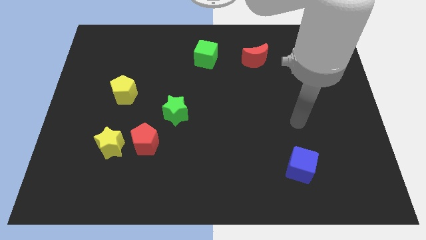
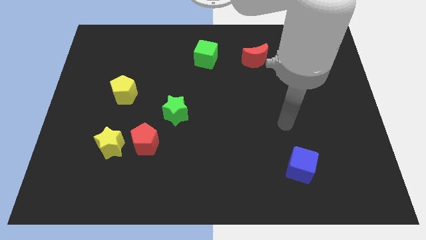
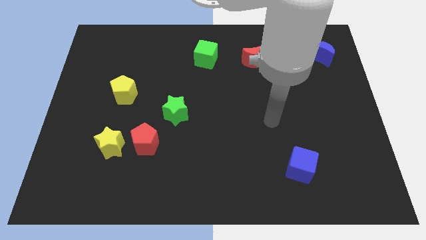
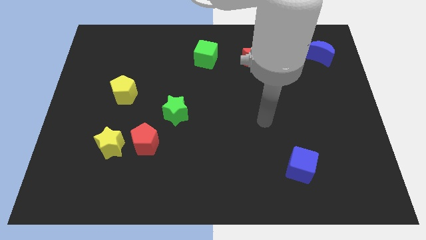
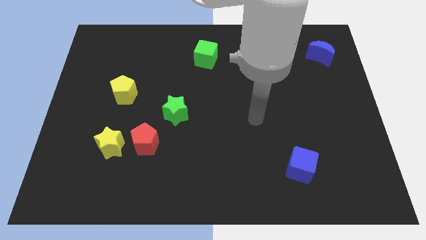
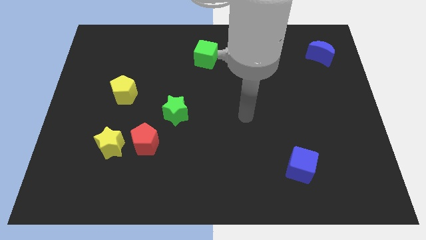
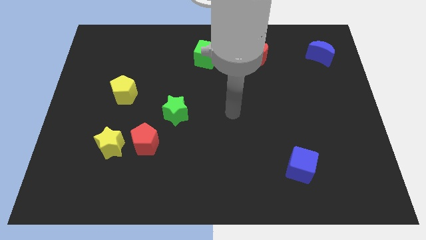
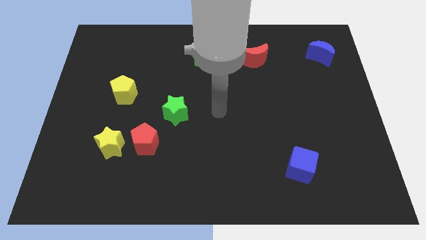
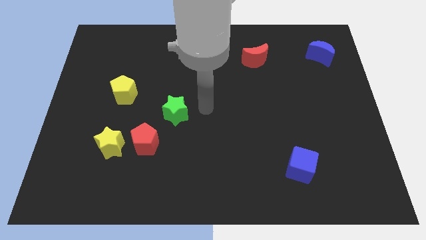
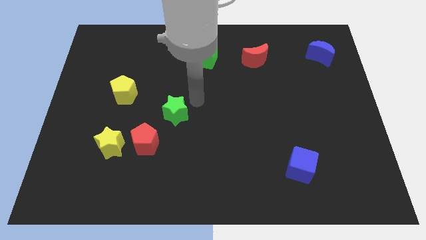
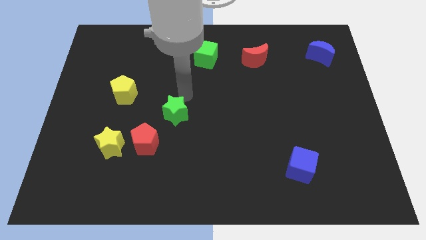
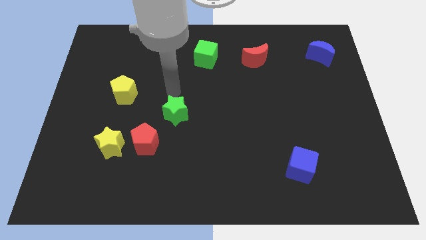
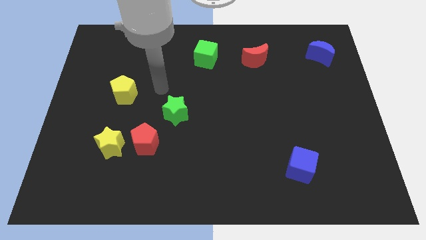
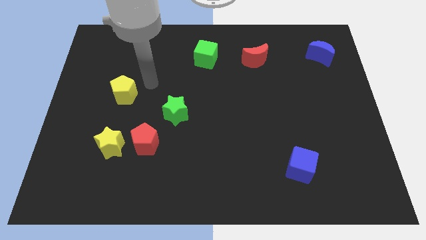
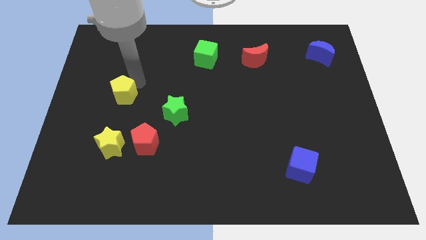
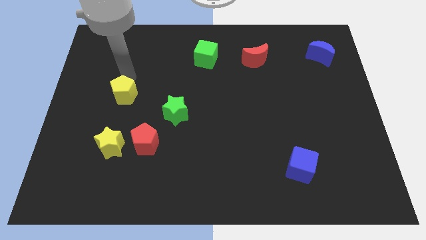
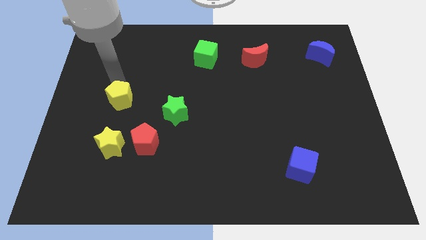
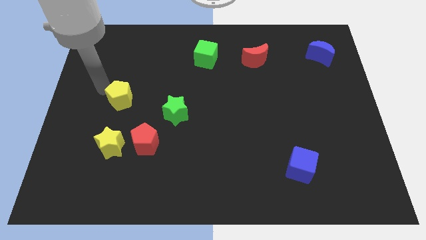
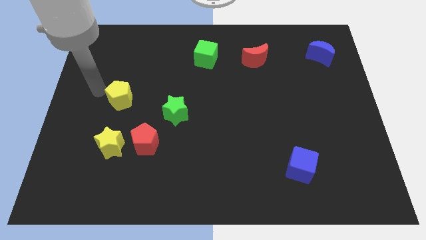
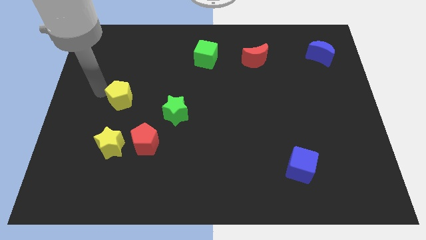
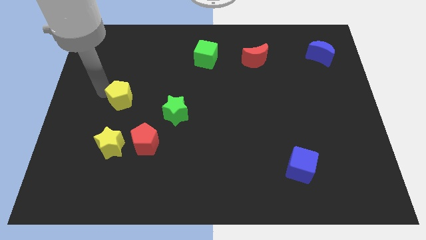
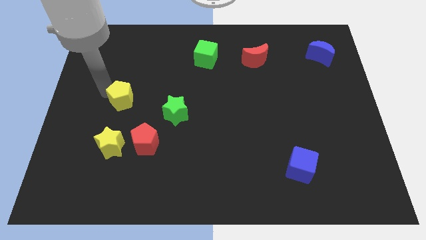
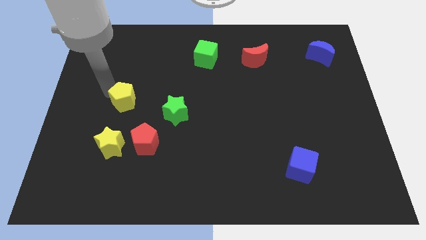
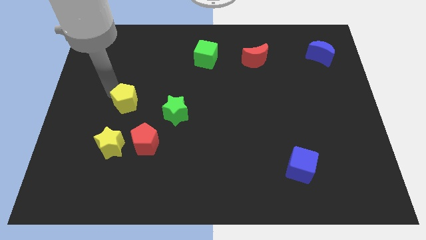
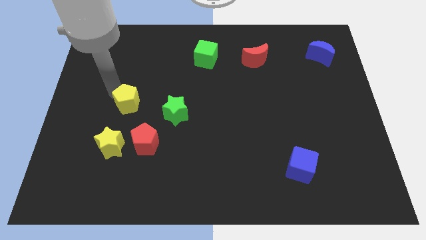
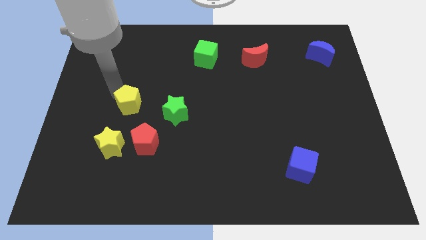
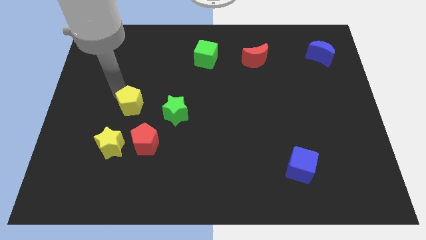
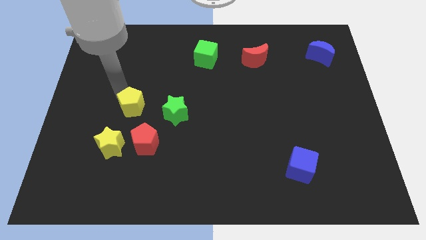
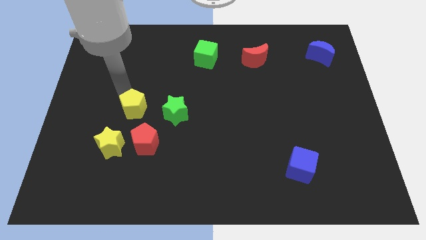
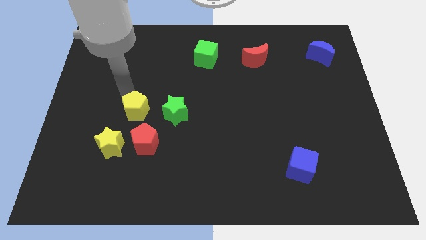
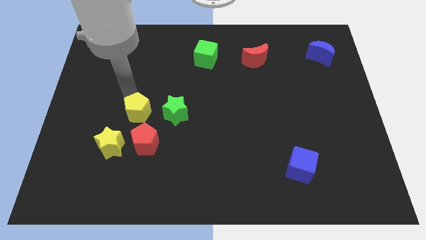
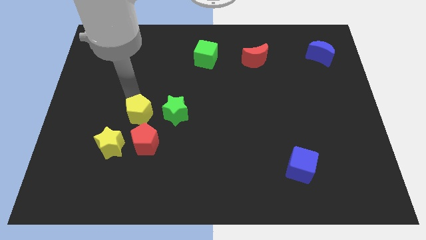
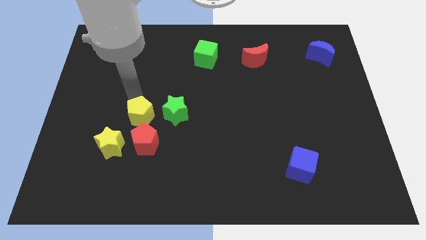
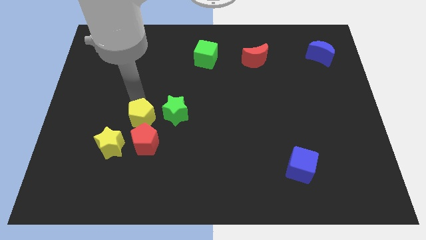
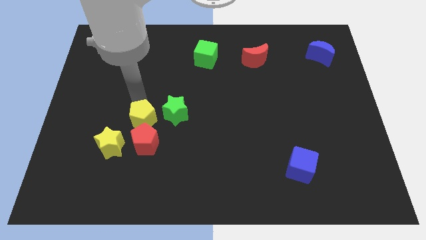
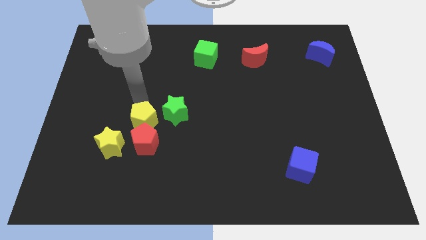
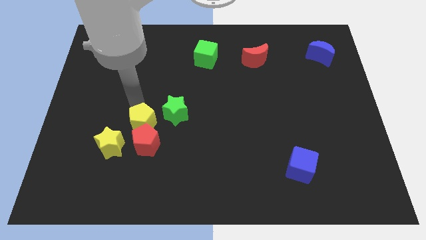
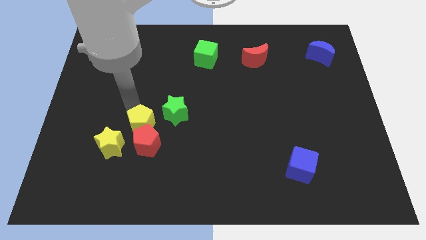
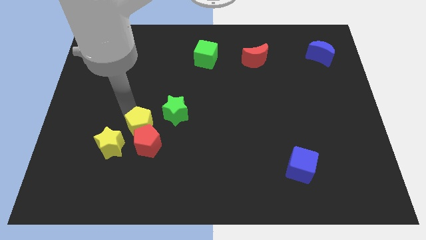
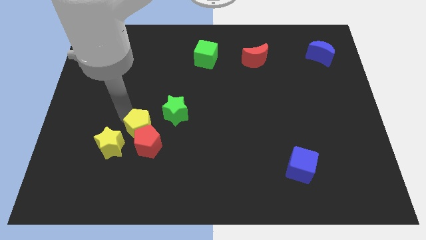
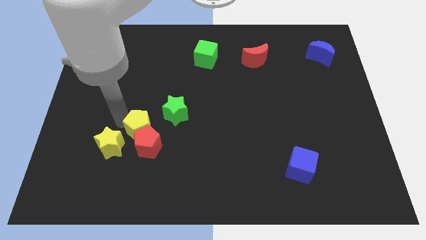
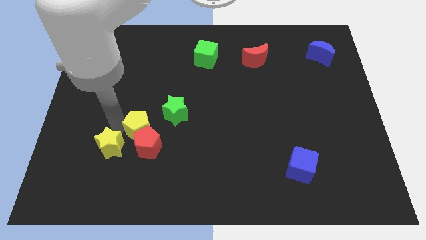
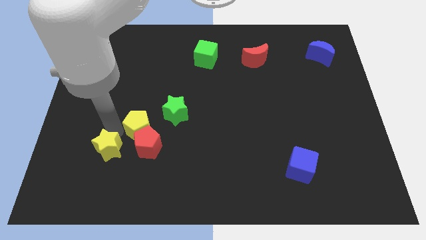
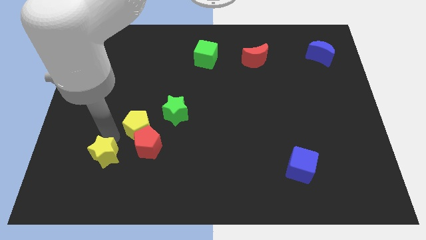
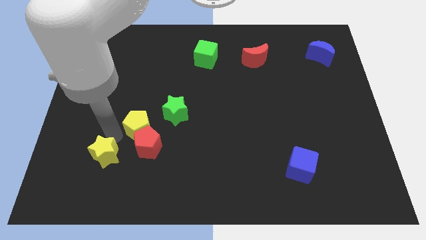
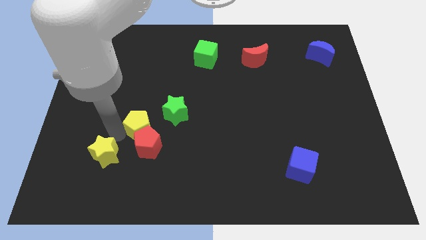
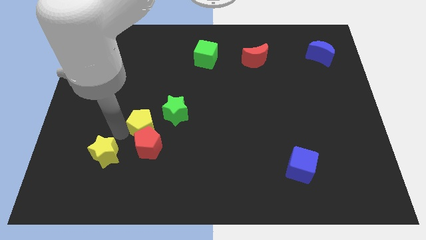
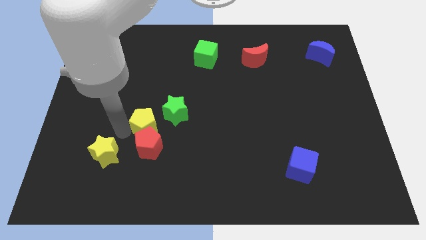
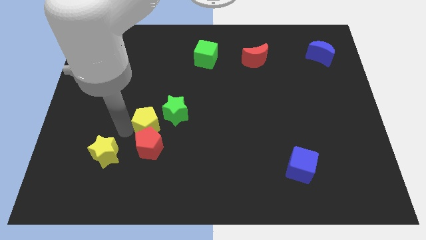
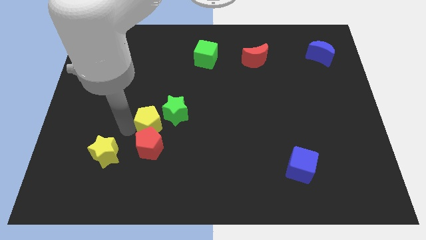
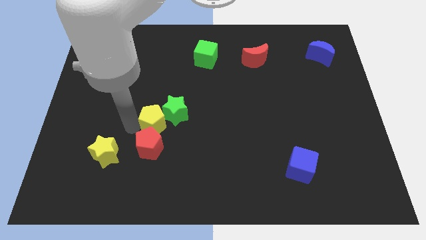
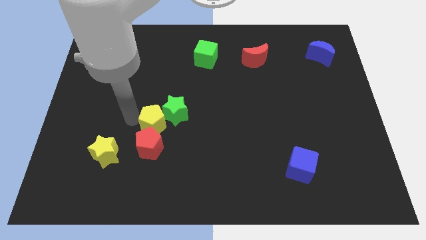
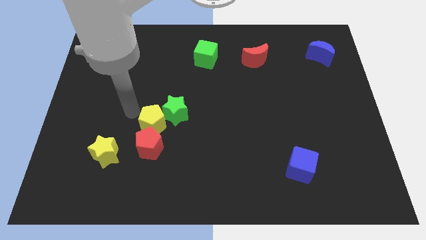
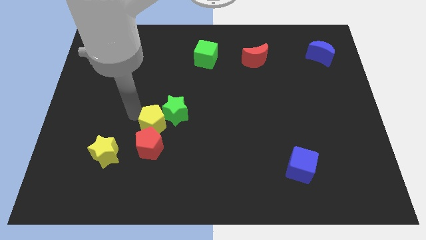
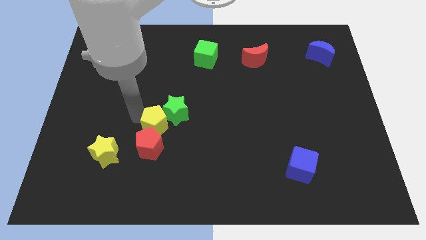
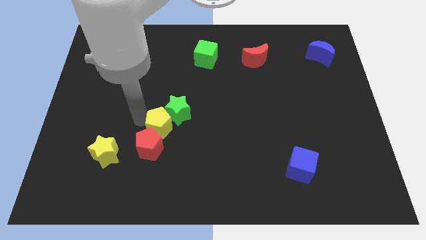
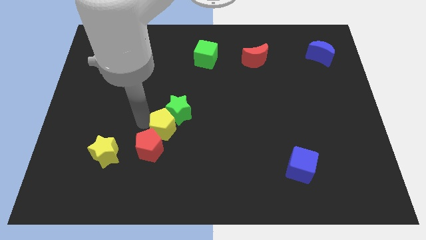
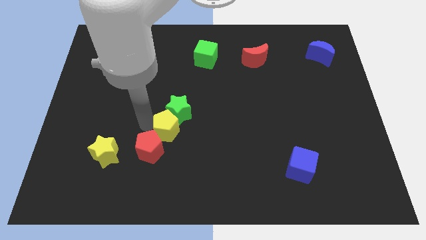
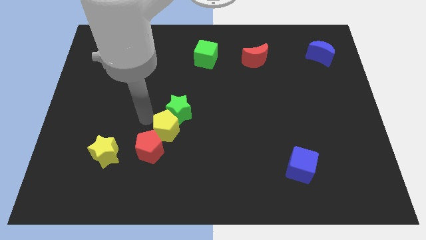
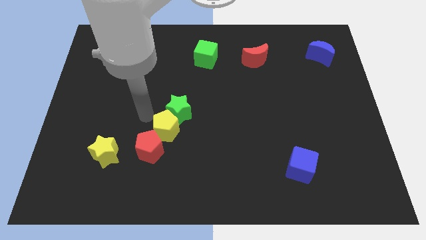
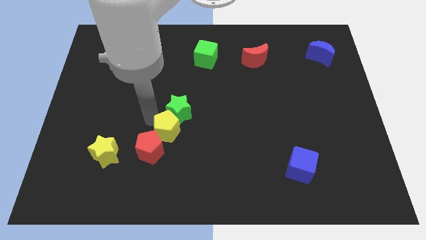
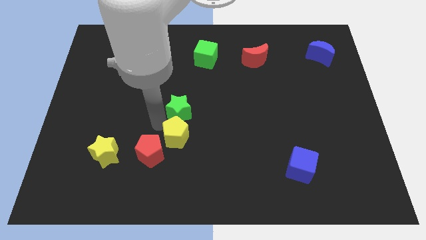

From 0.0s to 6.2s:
move the yellow pentagon to the right of the red pentagon

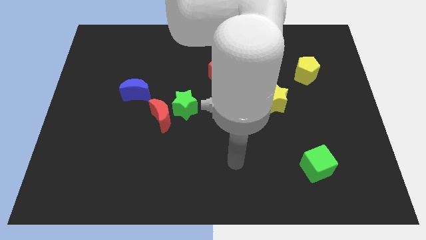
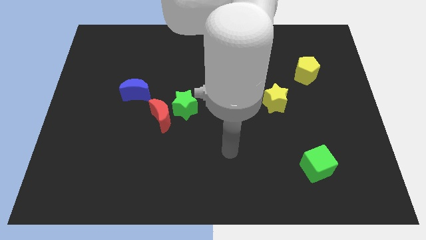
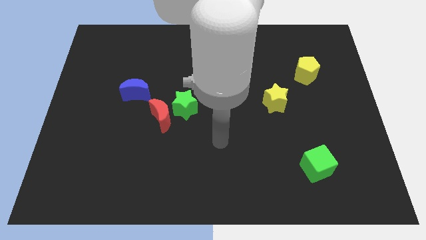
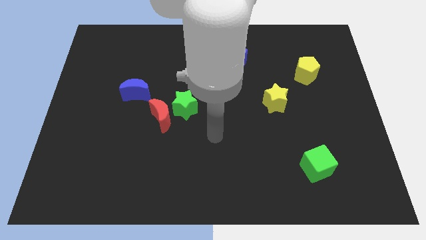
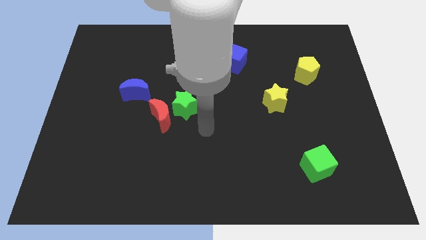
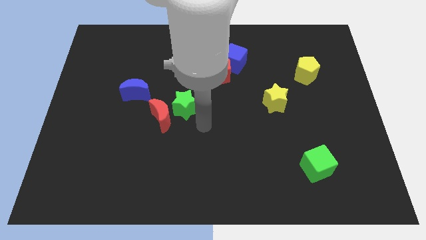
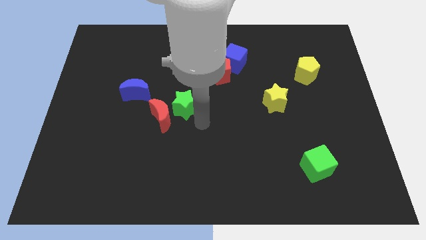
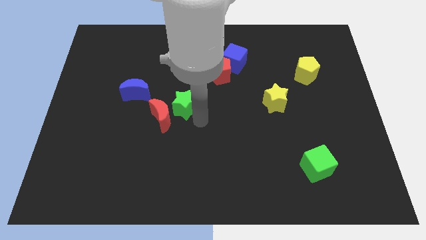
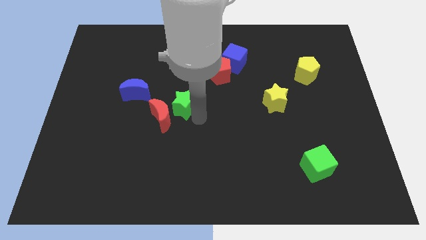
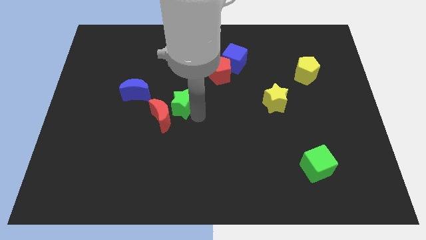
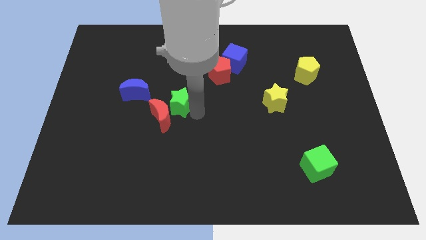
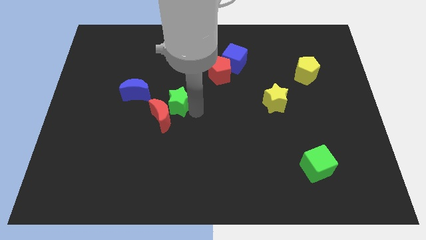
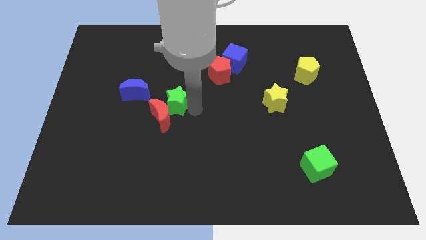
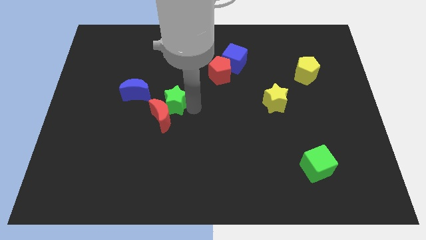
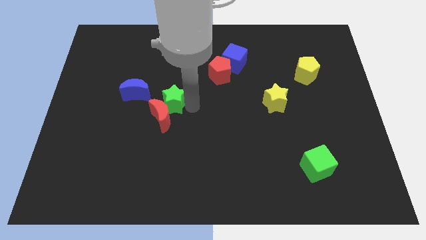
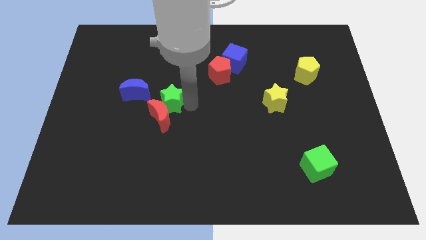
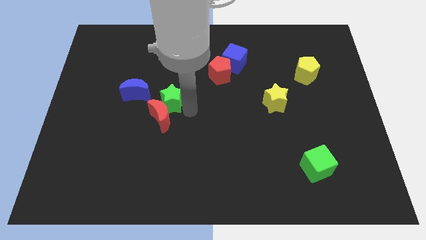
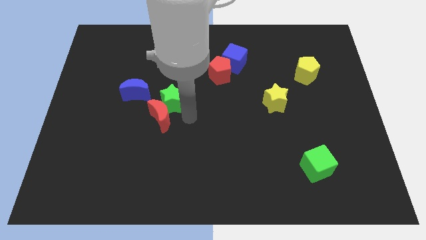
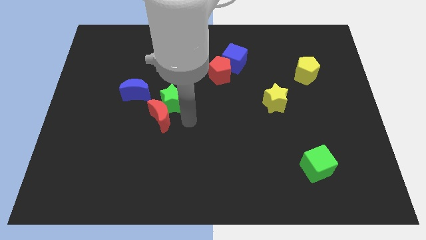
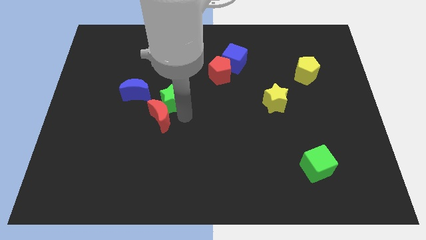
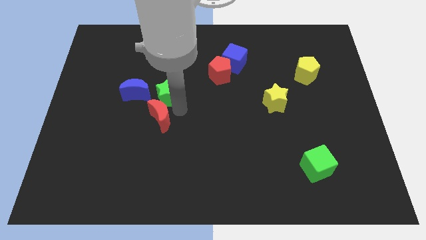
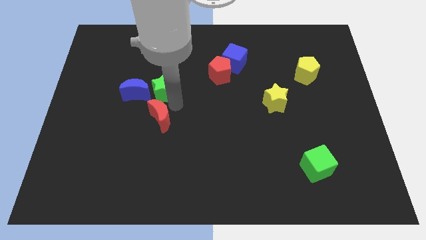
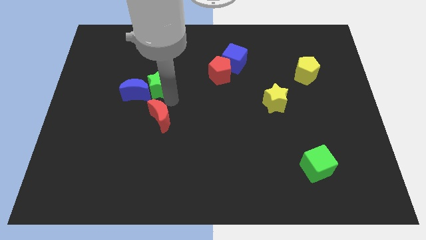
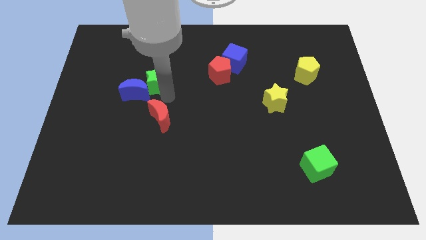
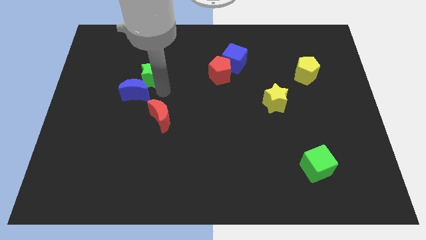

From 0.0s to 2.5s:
put the green star to the top side of the blue moon
